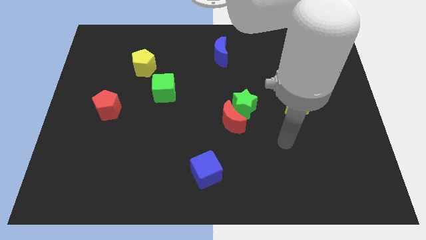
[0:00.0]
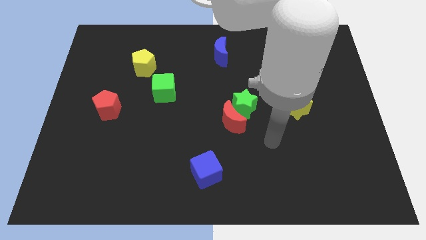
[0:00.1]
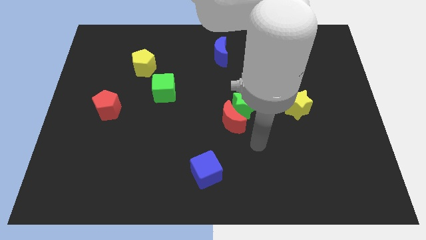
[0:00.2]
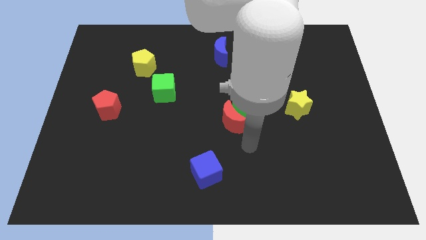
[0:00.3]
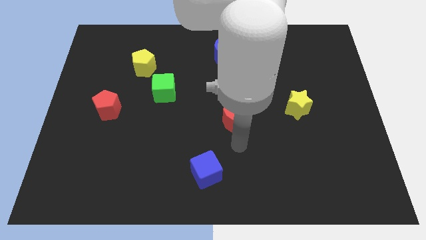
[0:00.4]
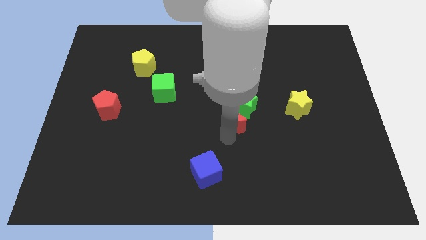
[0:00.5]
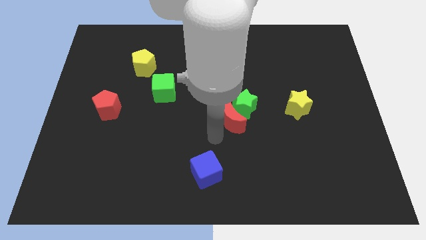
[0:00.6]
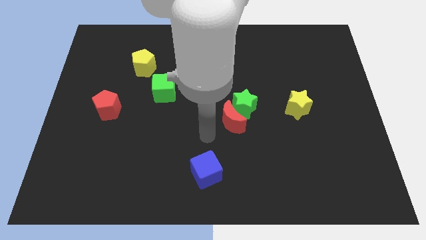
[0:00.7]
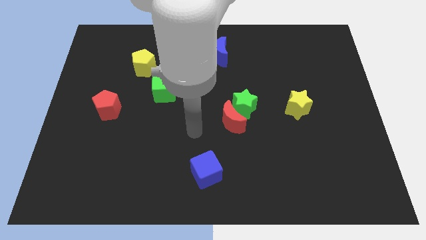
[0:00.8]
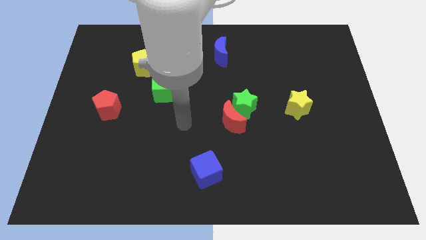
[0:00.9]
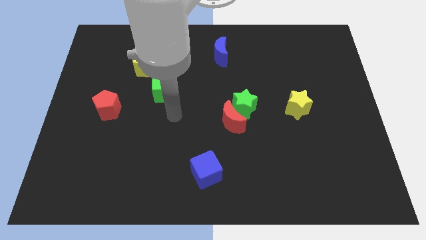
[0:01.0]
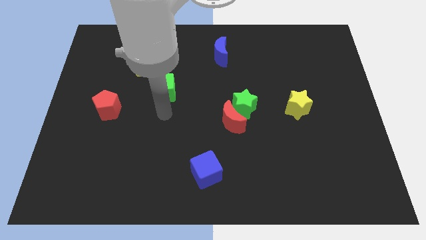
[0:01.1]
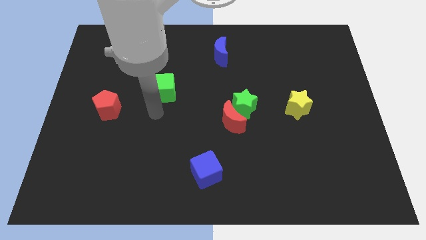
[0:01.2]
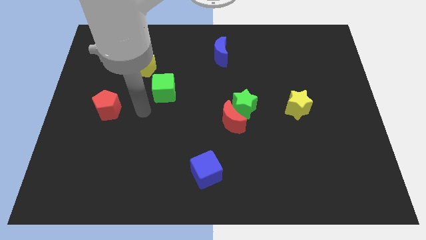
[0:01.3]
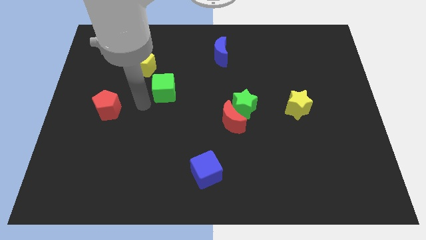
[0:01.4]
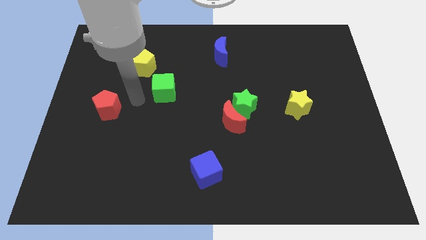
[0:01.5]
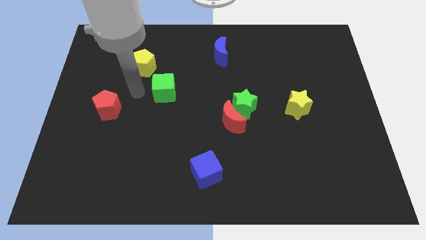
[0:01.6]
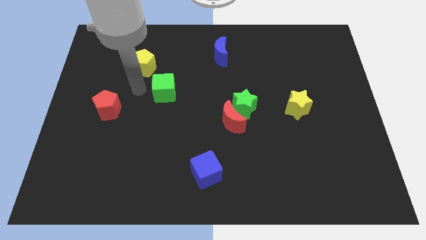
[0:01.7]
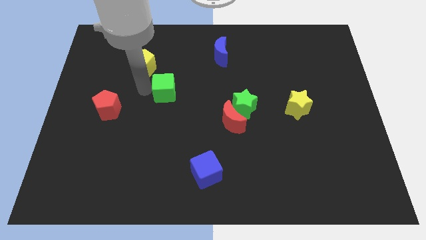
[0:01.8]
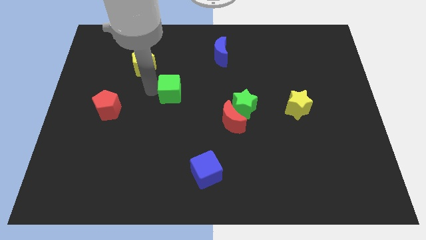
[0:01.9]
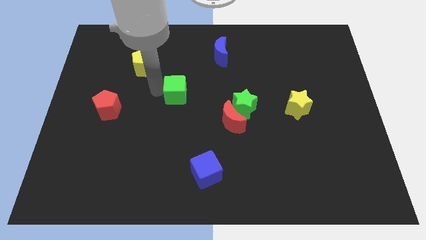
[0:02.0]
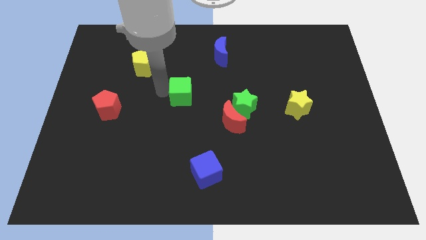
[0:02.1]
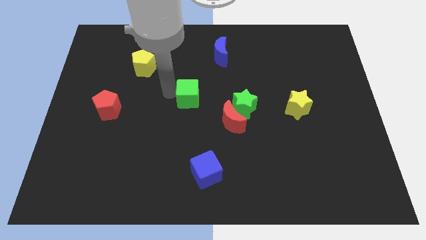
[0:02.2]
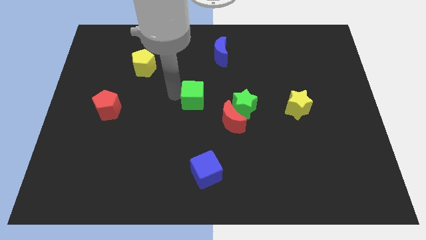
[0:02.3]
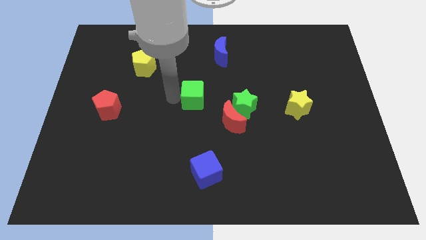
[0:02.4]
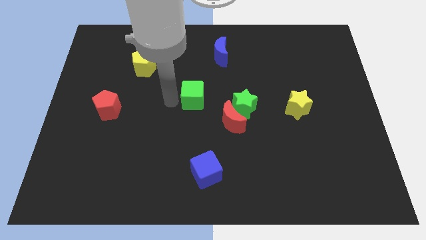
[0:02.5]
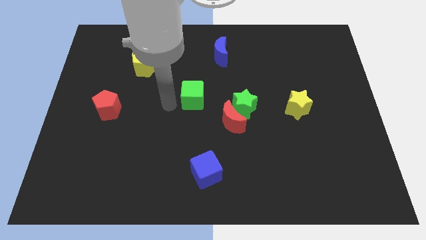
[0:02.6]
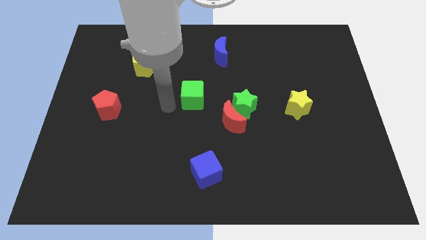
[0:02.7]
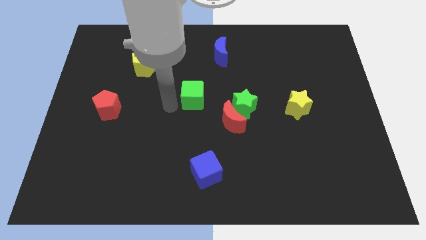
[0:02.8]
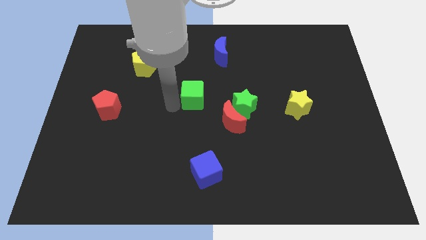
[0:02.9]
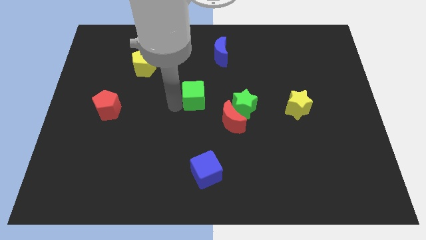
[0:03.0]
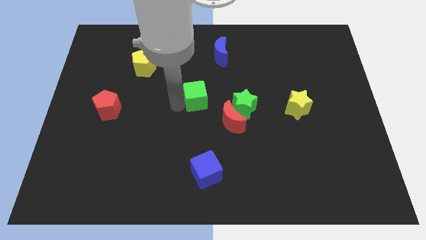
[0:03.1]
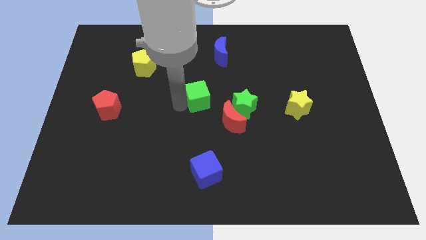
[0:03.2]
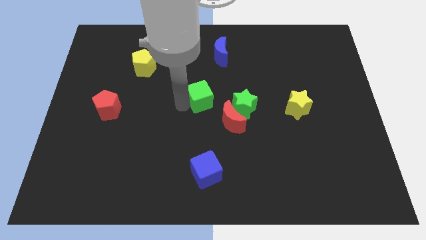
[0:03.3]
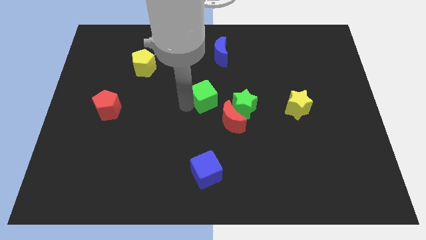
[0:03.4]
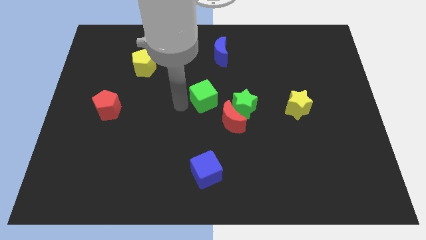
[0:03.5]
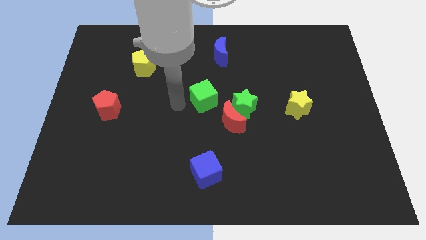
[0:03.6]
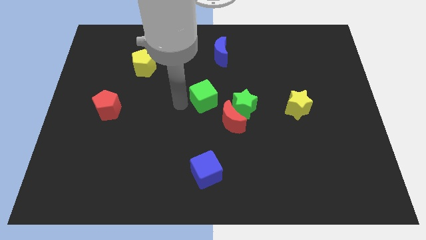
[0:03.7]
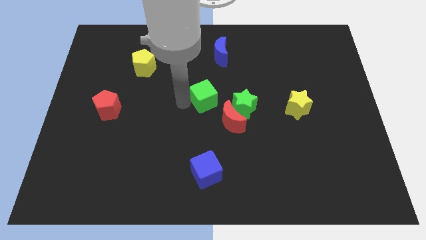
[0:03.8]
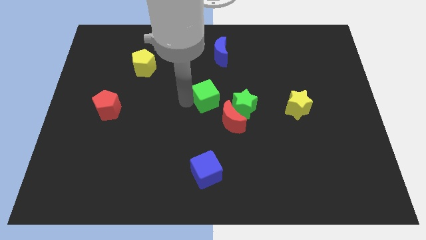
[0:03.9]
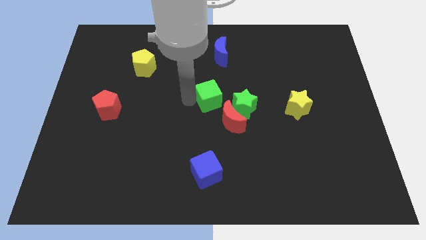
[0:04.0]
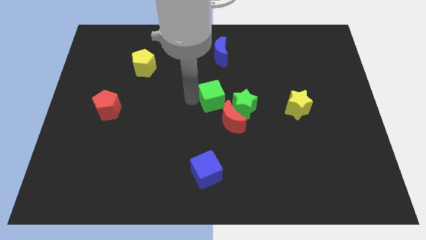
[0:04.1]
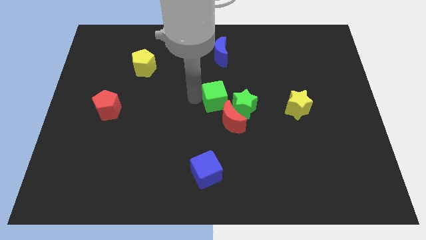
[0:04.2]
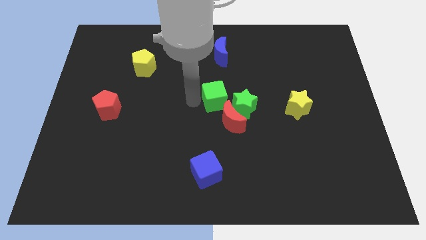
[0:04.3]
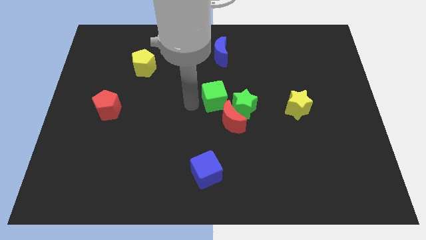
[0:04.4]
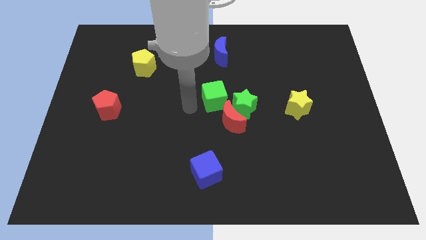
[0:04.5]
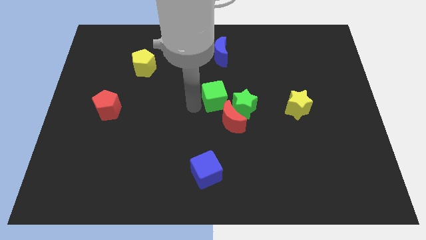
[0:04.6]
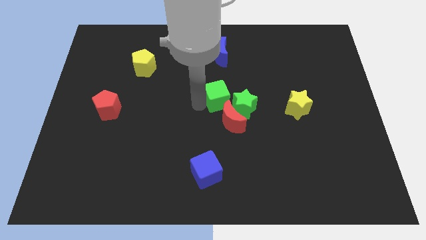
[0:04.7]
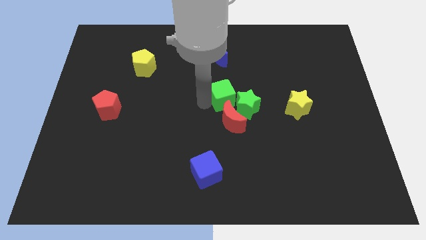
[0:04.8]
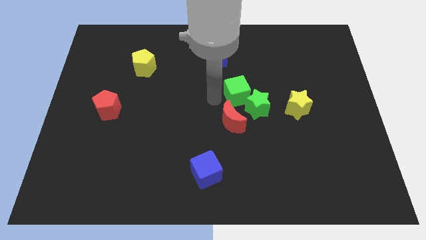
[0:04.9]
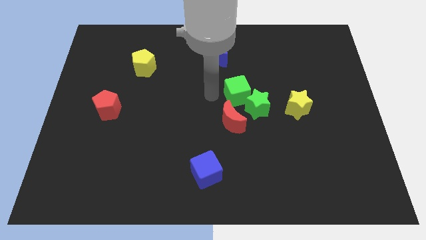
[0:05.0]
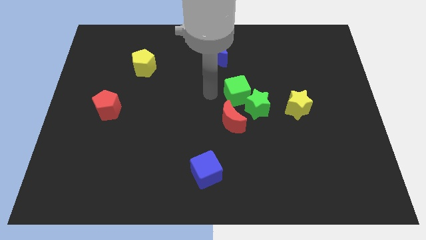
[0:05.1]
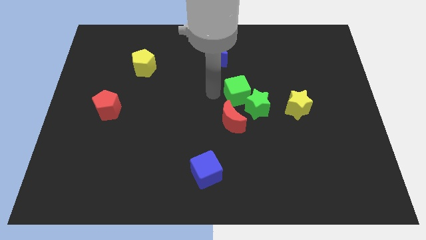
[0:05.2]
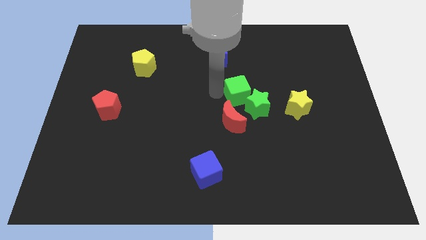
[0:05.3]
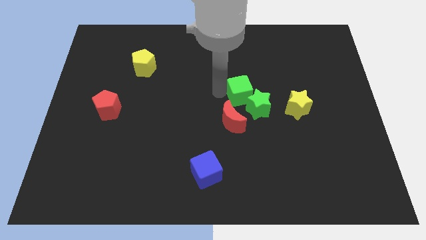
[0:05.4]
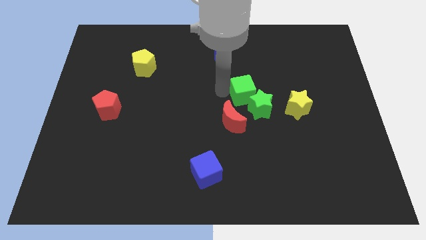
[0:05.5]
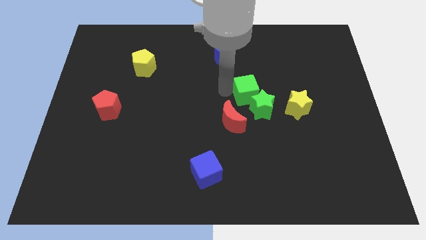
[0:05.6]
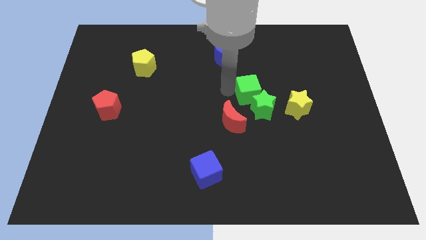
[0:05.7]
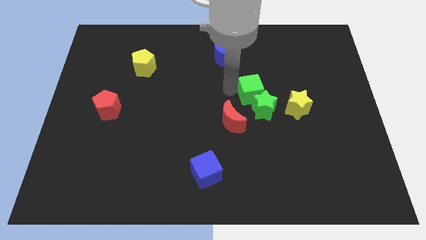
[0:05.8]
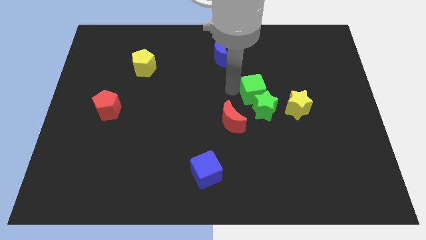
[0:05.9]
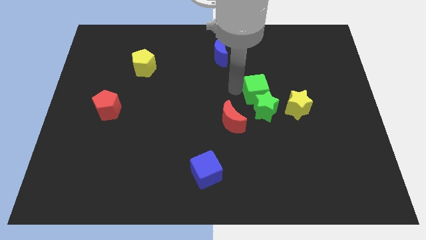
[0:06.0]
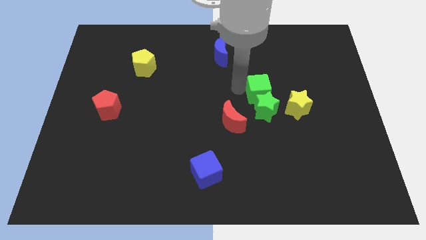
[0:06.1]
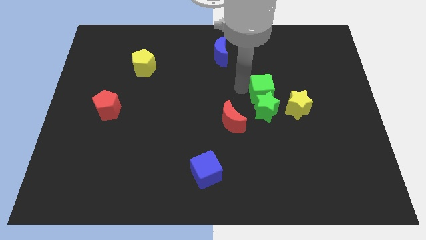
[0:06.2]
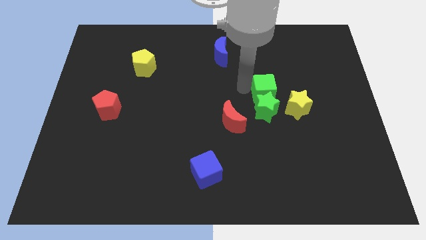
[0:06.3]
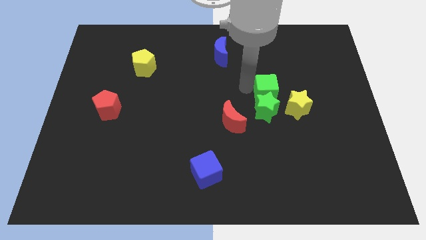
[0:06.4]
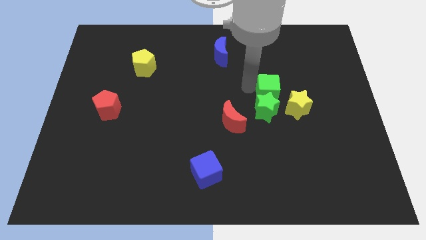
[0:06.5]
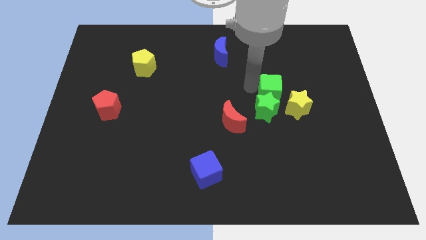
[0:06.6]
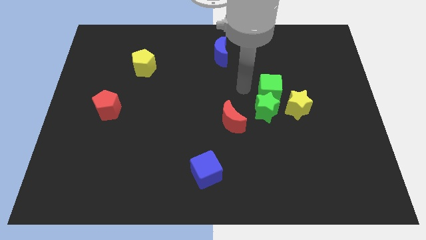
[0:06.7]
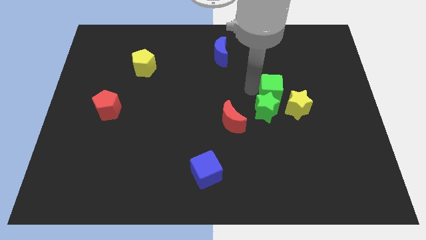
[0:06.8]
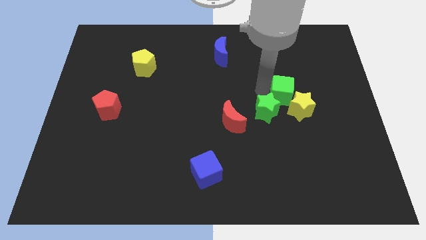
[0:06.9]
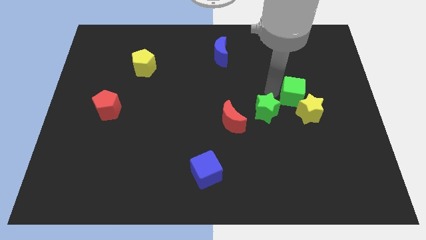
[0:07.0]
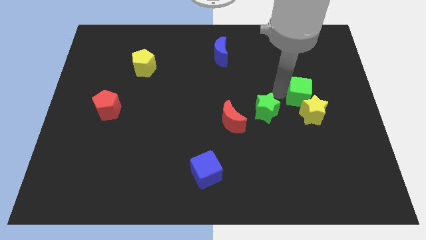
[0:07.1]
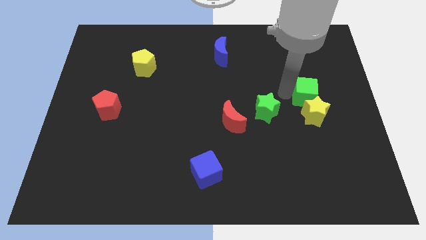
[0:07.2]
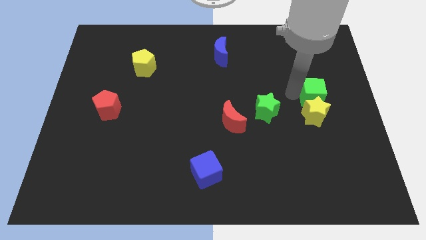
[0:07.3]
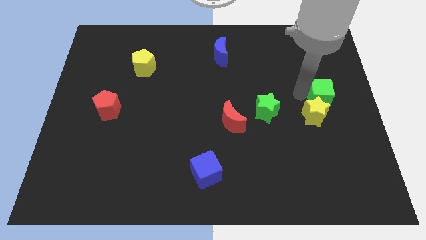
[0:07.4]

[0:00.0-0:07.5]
slide the green cube to the right side
